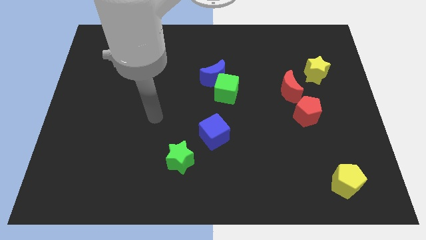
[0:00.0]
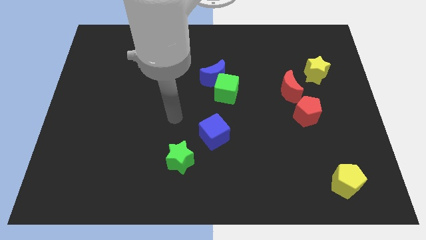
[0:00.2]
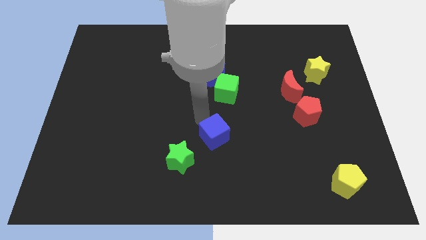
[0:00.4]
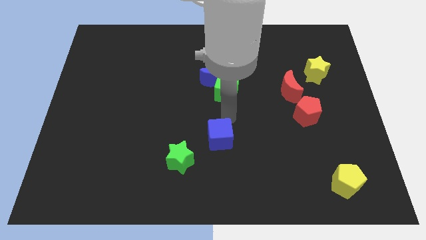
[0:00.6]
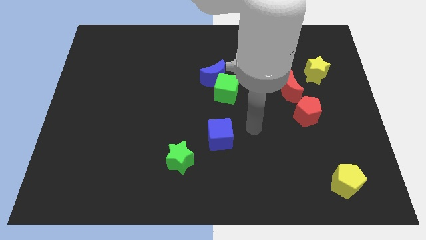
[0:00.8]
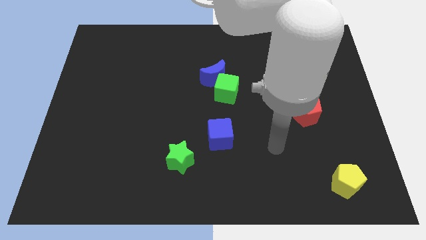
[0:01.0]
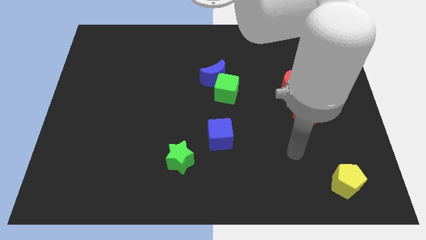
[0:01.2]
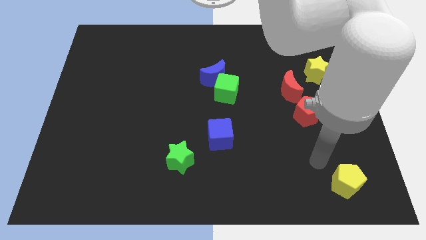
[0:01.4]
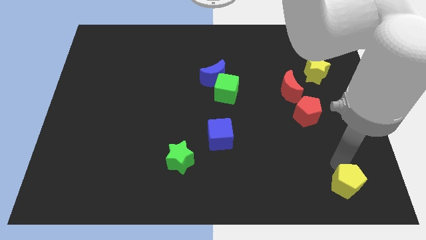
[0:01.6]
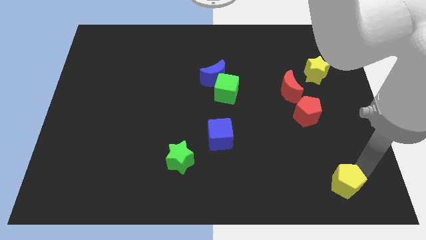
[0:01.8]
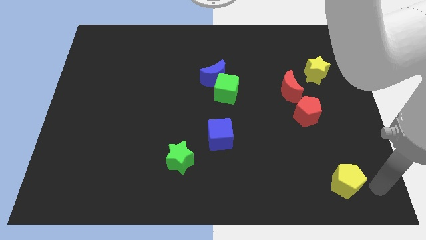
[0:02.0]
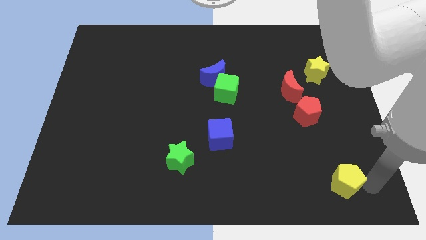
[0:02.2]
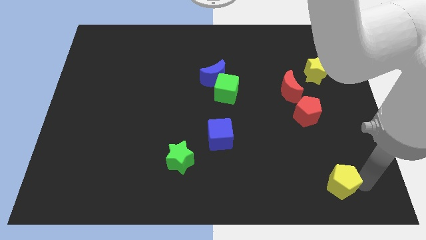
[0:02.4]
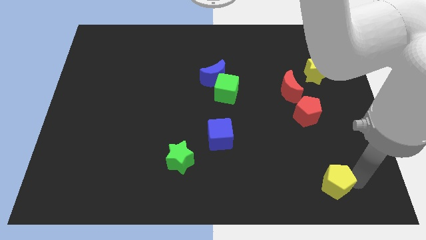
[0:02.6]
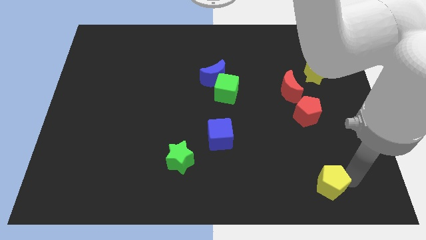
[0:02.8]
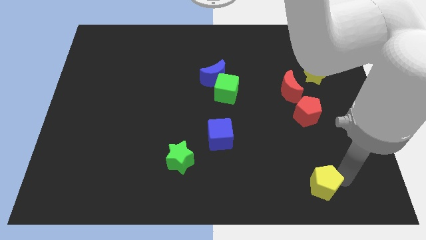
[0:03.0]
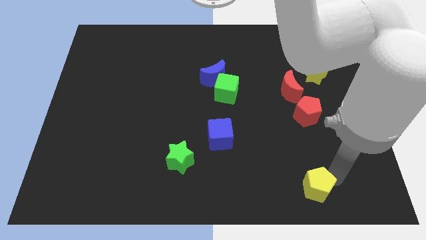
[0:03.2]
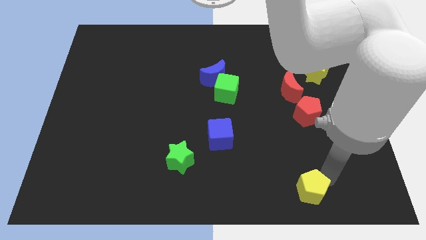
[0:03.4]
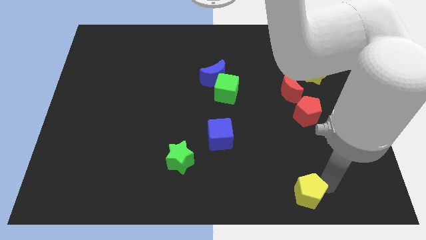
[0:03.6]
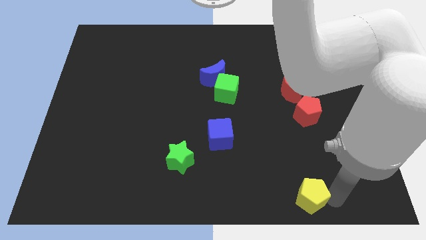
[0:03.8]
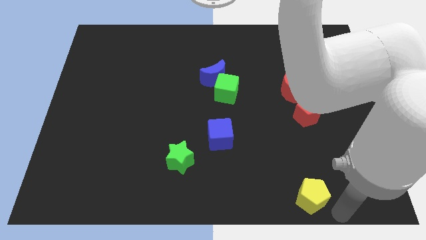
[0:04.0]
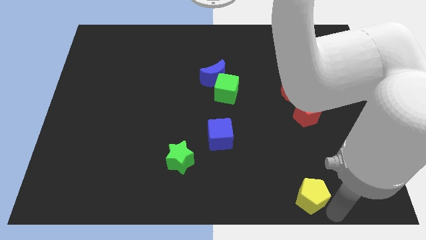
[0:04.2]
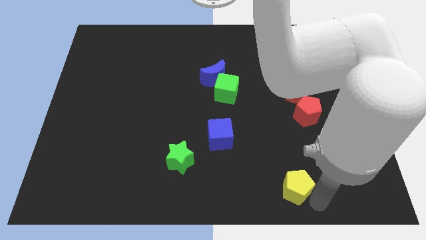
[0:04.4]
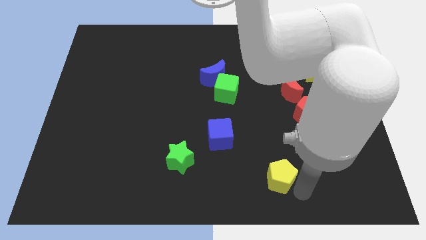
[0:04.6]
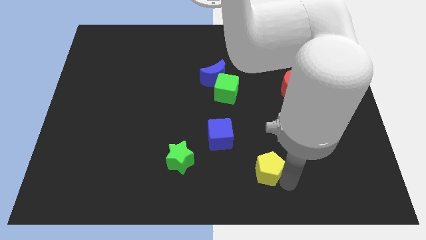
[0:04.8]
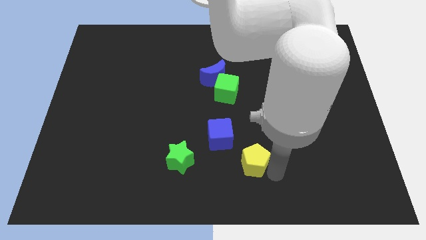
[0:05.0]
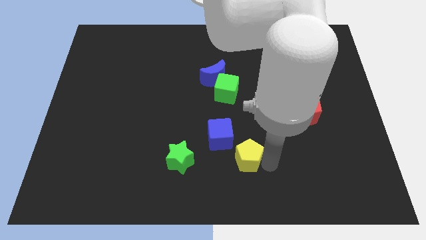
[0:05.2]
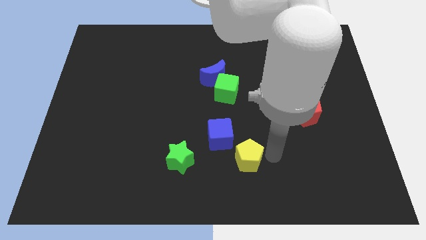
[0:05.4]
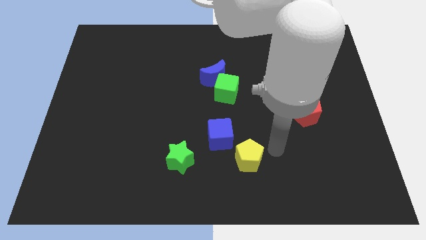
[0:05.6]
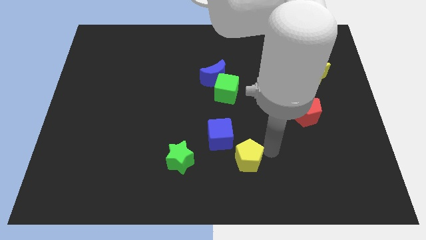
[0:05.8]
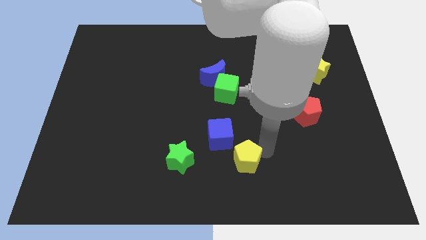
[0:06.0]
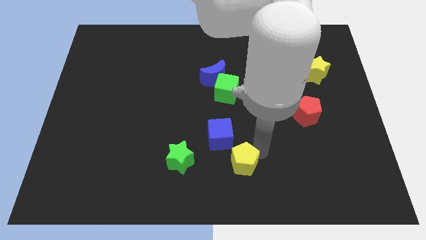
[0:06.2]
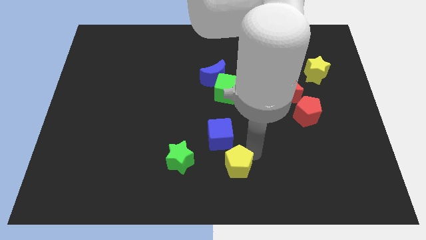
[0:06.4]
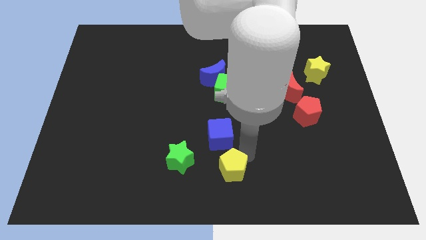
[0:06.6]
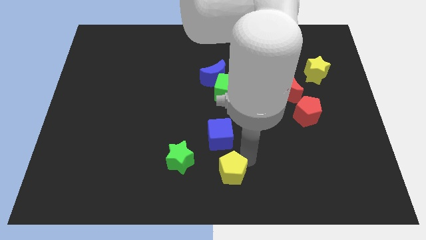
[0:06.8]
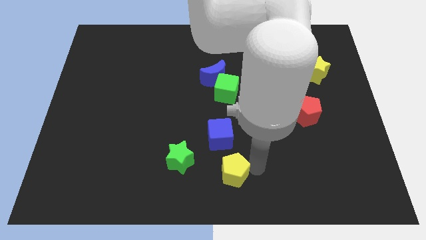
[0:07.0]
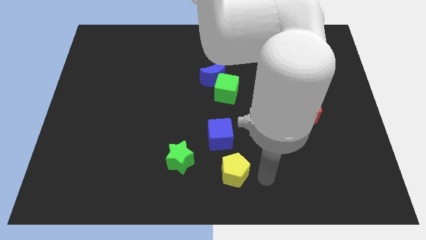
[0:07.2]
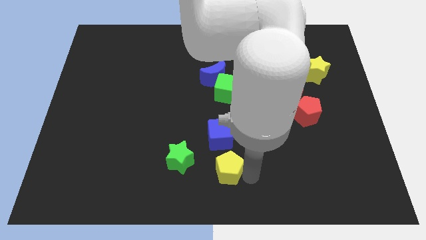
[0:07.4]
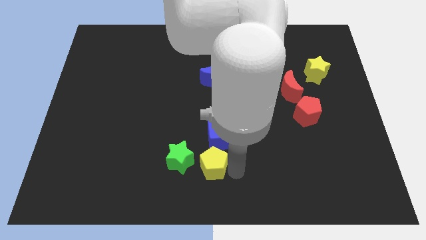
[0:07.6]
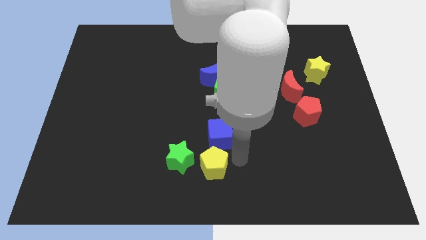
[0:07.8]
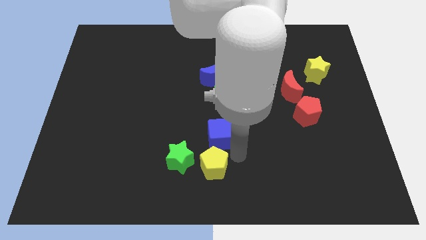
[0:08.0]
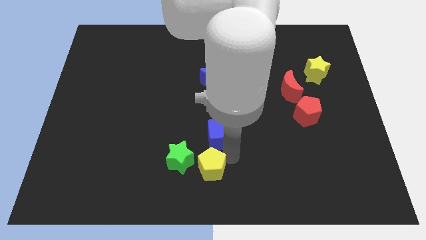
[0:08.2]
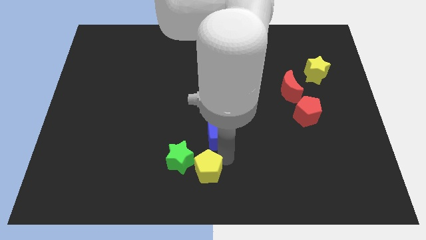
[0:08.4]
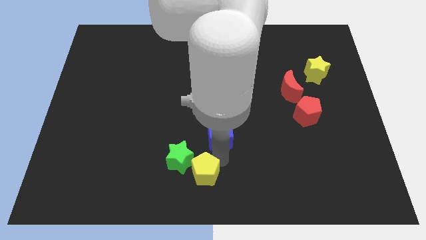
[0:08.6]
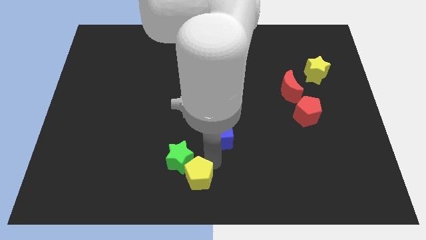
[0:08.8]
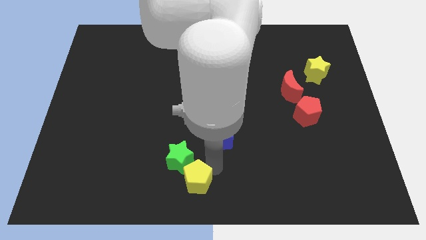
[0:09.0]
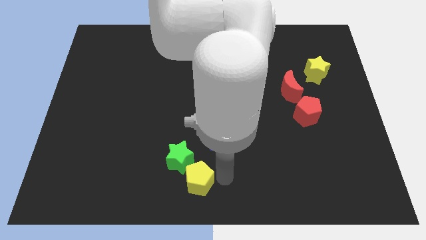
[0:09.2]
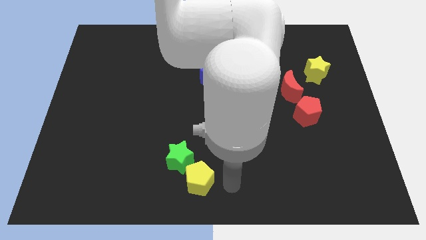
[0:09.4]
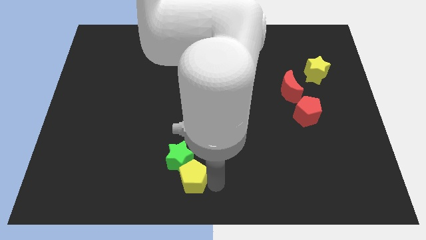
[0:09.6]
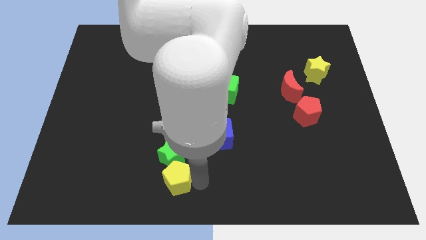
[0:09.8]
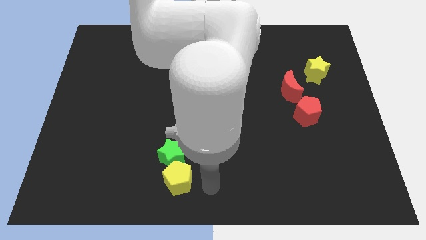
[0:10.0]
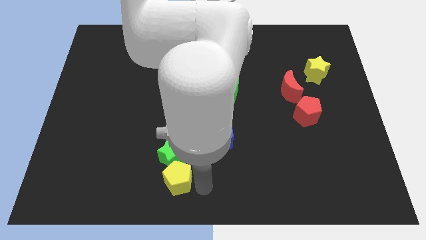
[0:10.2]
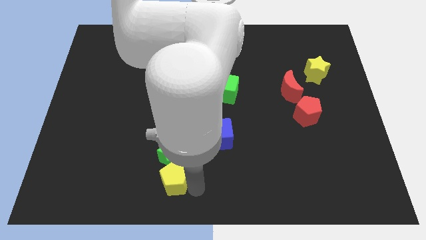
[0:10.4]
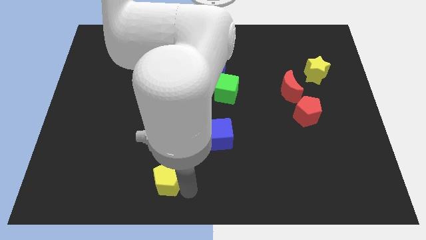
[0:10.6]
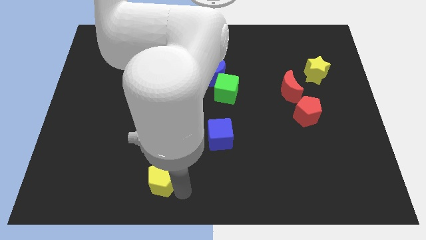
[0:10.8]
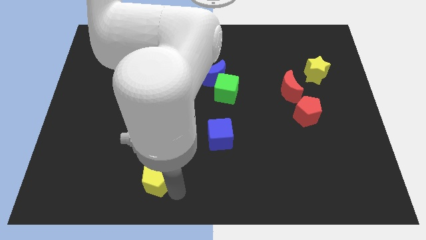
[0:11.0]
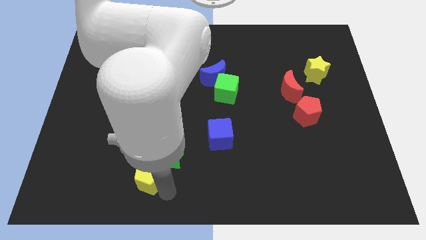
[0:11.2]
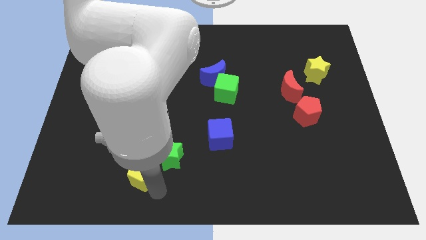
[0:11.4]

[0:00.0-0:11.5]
push the yellow pentagon left of the green star

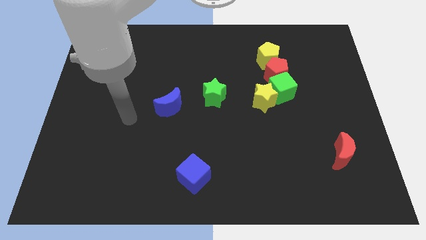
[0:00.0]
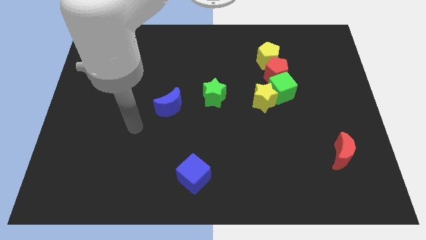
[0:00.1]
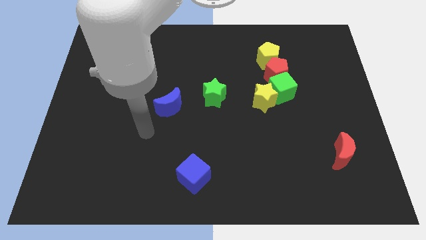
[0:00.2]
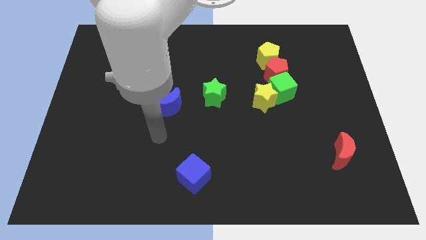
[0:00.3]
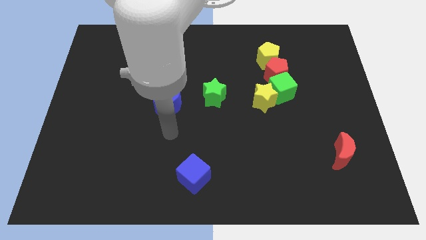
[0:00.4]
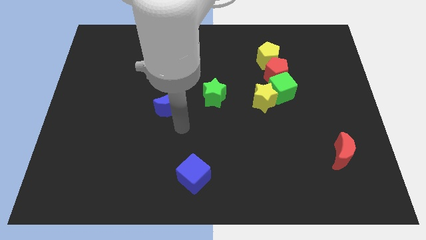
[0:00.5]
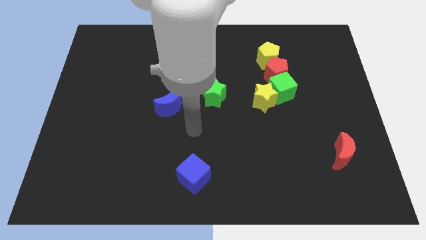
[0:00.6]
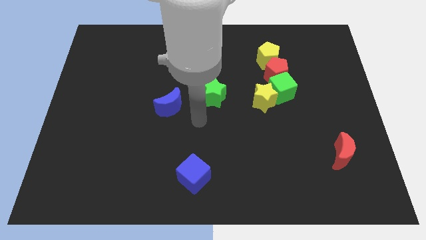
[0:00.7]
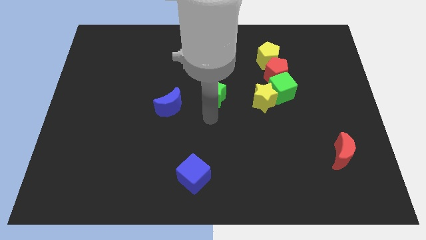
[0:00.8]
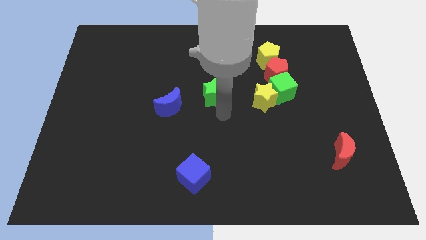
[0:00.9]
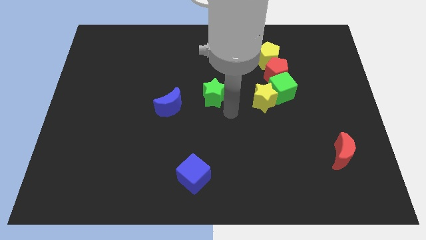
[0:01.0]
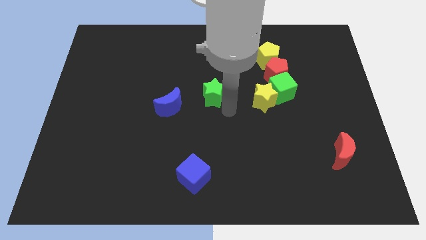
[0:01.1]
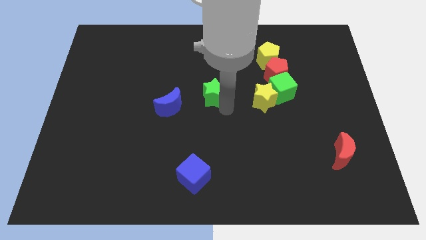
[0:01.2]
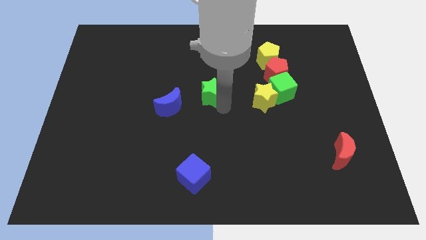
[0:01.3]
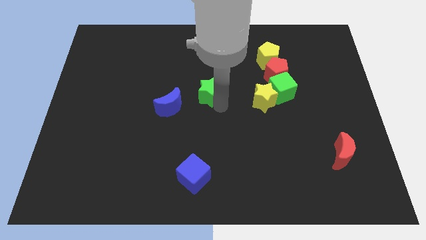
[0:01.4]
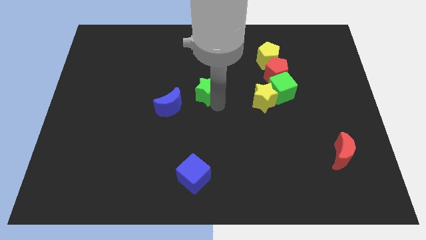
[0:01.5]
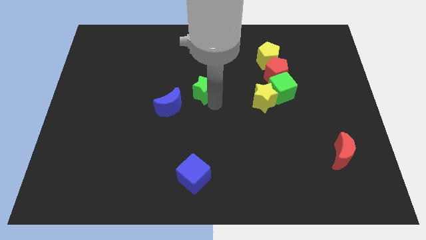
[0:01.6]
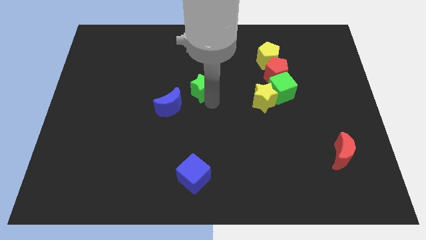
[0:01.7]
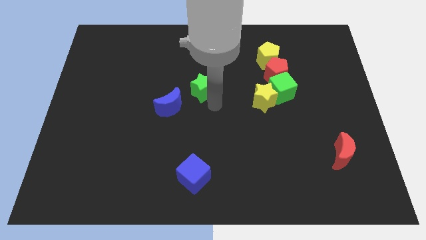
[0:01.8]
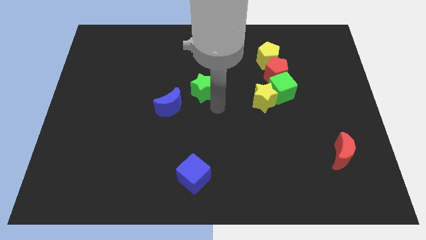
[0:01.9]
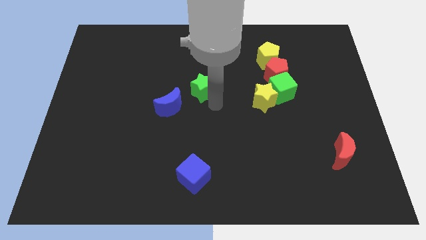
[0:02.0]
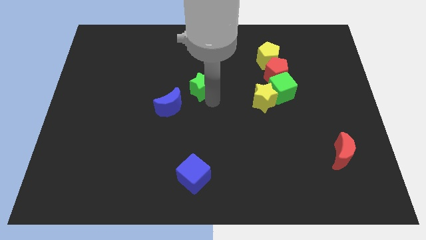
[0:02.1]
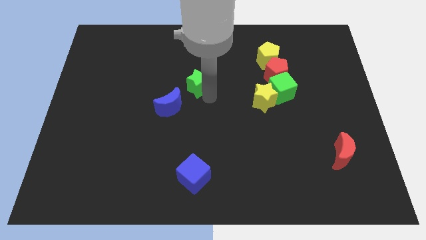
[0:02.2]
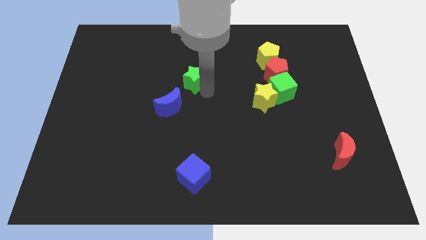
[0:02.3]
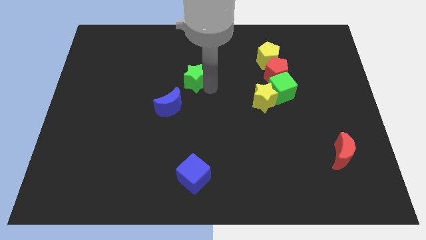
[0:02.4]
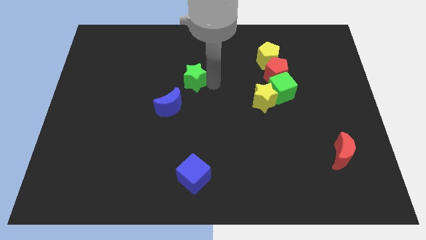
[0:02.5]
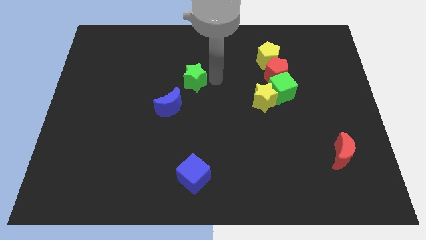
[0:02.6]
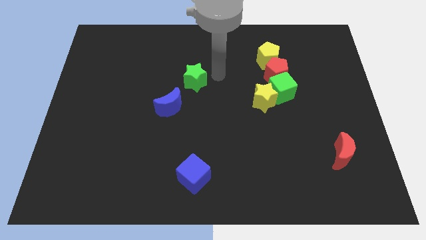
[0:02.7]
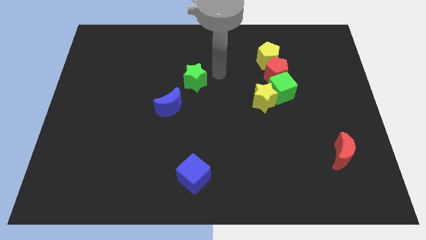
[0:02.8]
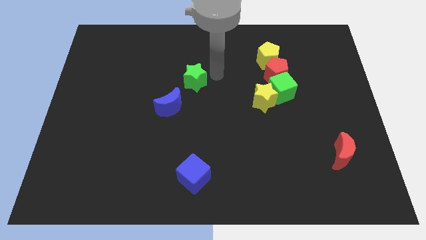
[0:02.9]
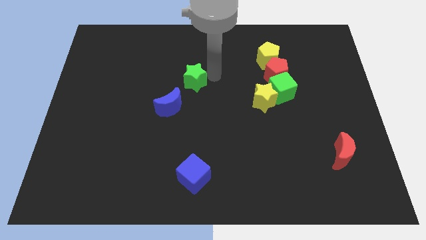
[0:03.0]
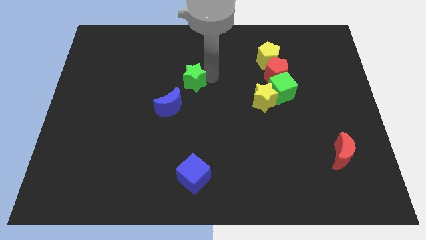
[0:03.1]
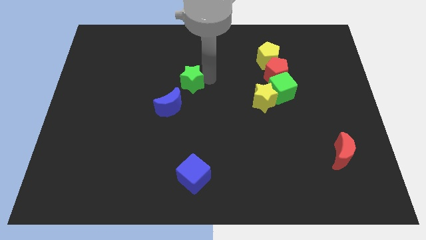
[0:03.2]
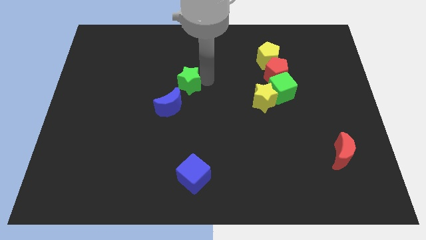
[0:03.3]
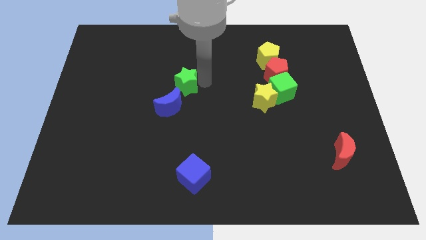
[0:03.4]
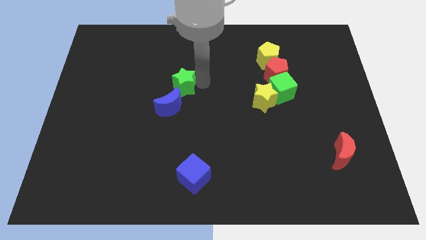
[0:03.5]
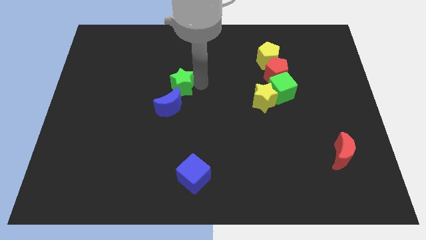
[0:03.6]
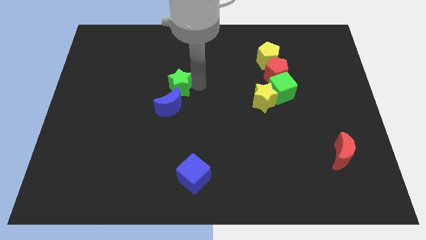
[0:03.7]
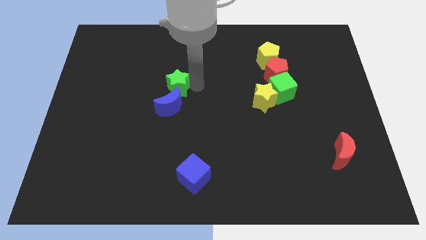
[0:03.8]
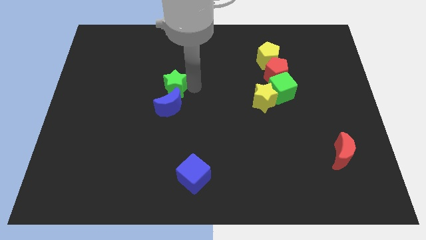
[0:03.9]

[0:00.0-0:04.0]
push the green star diagonally up and to the left of the blue moon
